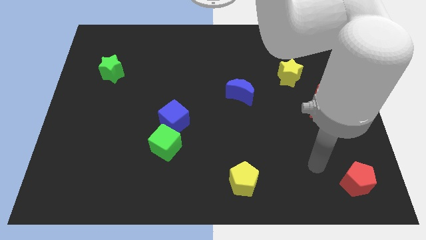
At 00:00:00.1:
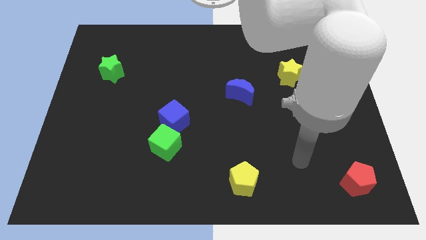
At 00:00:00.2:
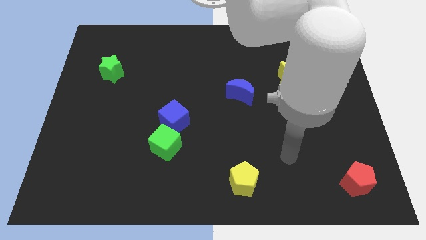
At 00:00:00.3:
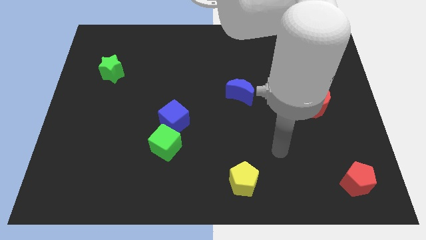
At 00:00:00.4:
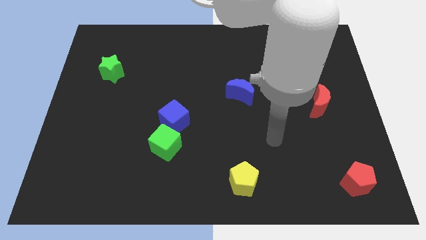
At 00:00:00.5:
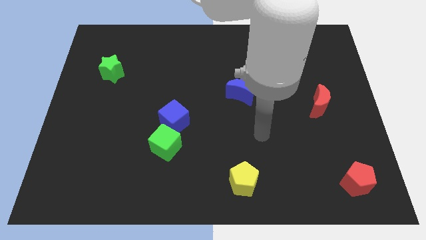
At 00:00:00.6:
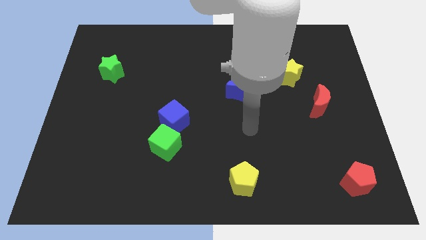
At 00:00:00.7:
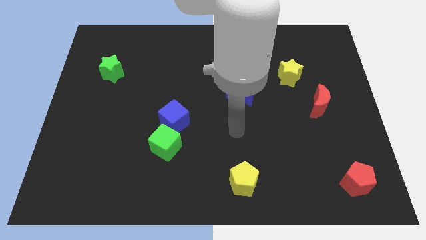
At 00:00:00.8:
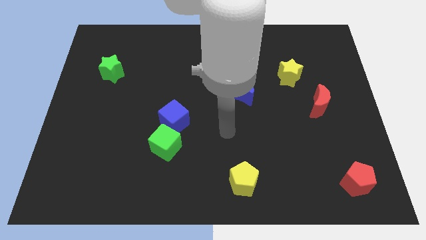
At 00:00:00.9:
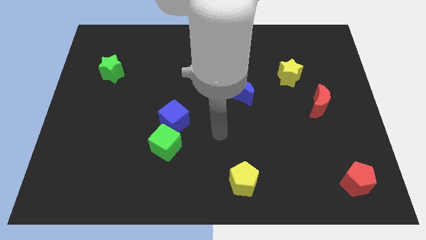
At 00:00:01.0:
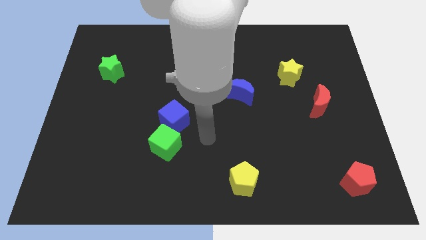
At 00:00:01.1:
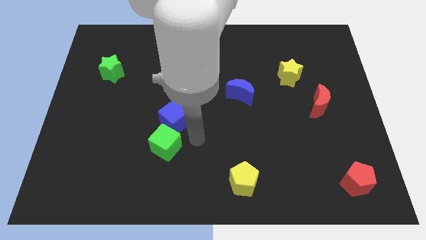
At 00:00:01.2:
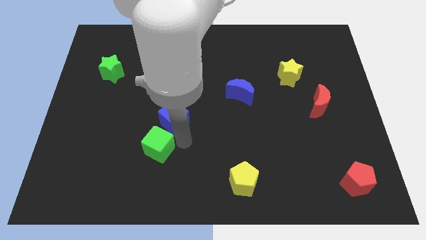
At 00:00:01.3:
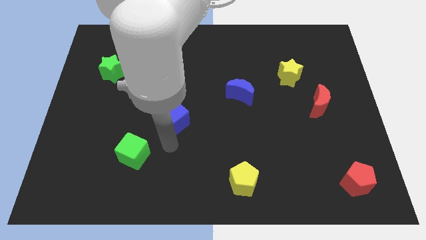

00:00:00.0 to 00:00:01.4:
move the blue cube away from the green cube

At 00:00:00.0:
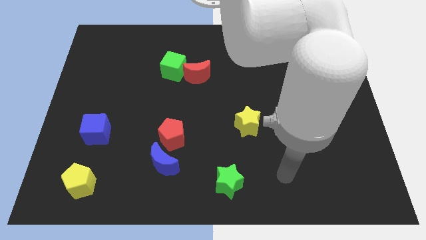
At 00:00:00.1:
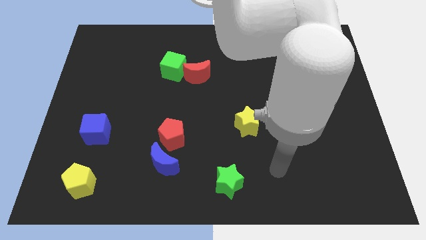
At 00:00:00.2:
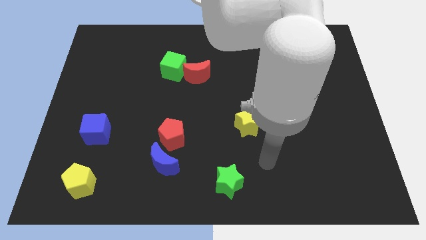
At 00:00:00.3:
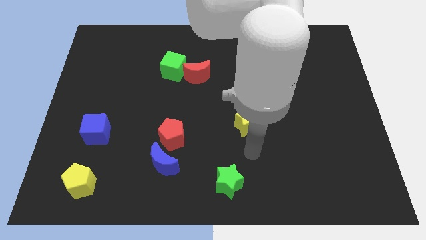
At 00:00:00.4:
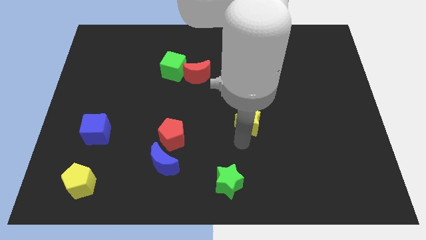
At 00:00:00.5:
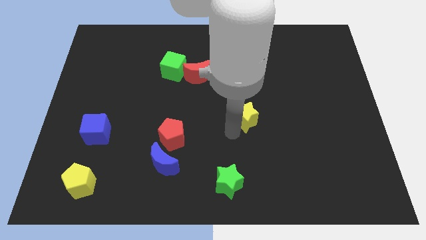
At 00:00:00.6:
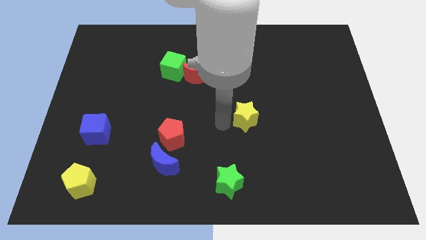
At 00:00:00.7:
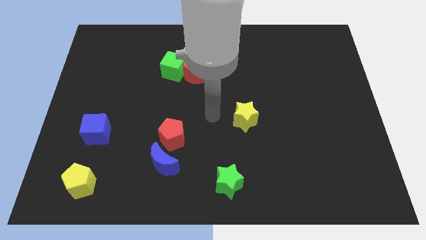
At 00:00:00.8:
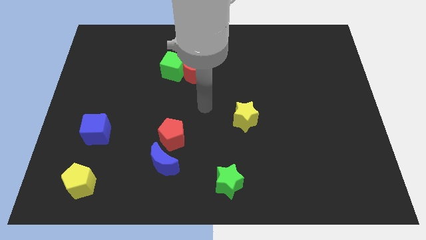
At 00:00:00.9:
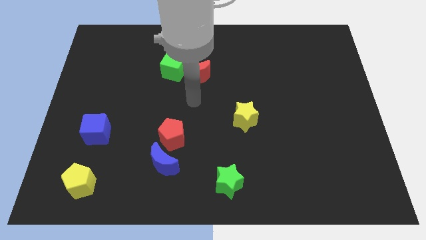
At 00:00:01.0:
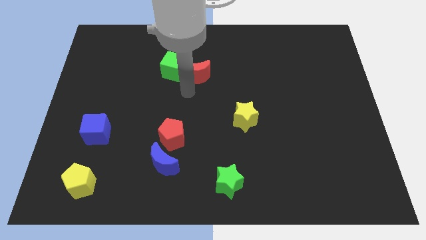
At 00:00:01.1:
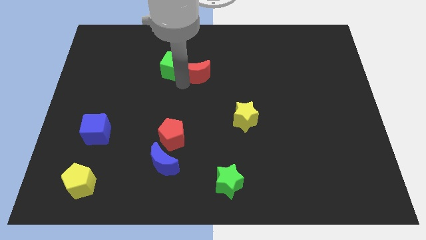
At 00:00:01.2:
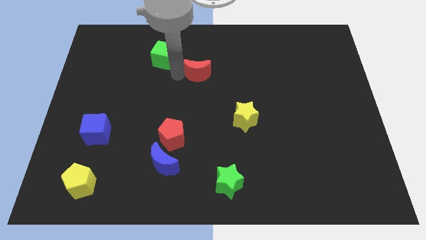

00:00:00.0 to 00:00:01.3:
pull the red moon apart from the green cube

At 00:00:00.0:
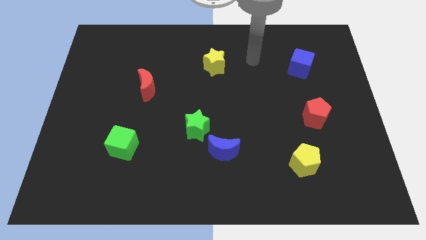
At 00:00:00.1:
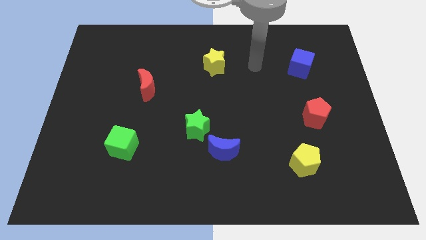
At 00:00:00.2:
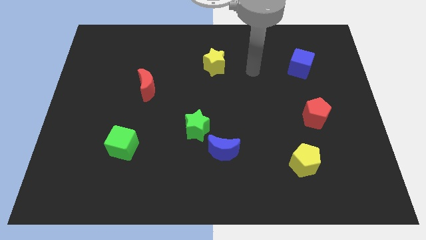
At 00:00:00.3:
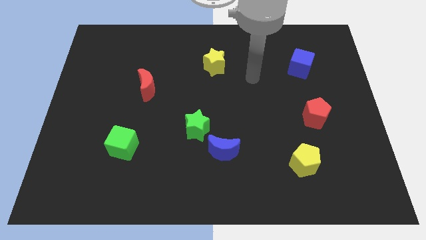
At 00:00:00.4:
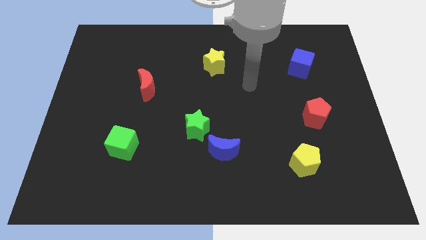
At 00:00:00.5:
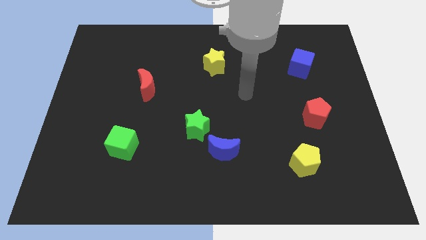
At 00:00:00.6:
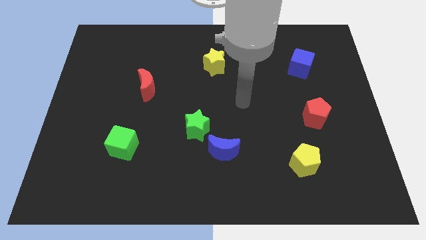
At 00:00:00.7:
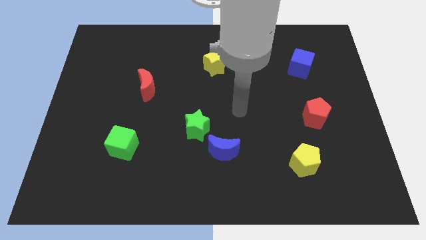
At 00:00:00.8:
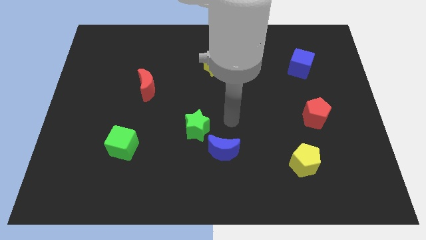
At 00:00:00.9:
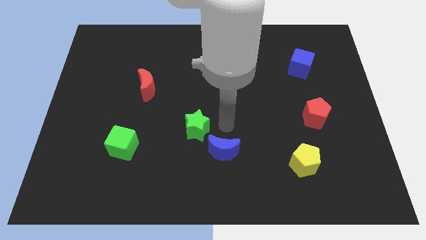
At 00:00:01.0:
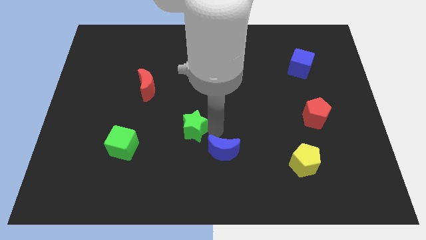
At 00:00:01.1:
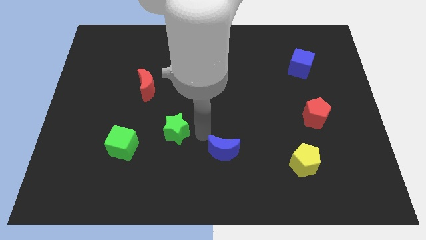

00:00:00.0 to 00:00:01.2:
move the blue moon away from the green star

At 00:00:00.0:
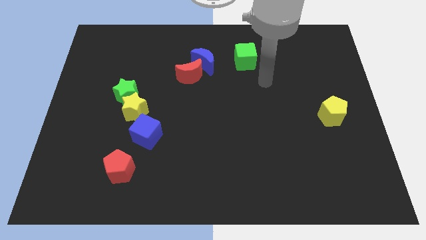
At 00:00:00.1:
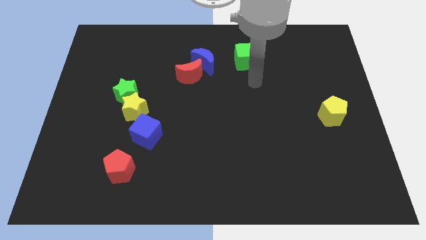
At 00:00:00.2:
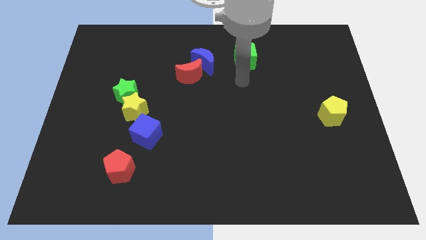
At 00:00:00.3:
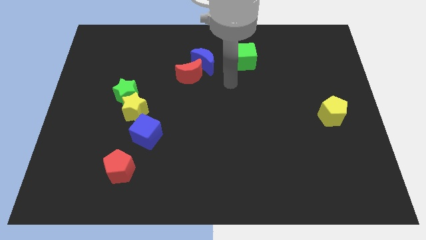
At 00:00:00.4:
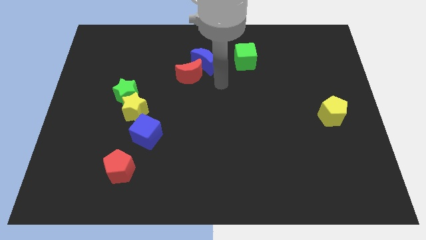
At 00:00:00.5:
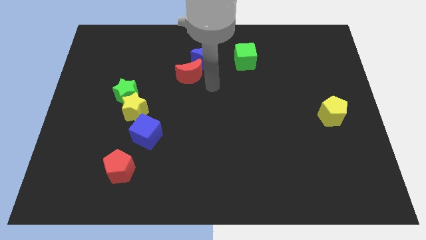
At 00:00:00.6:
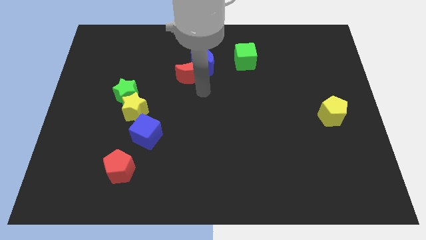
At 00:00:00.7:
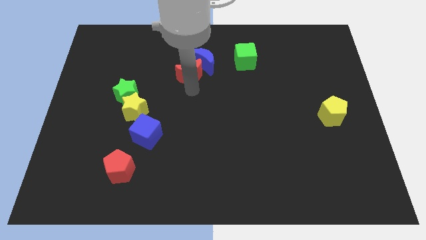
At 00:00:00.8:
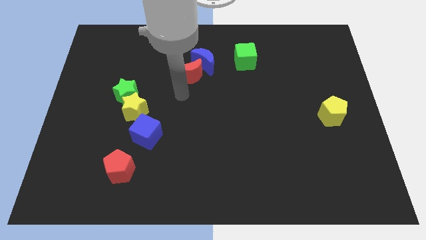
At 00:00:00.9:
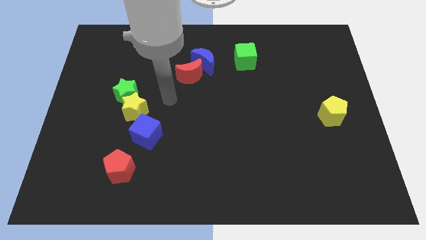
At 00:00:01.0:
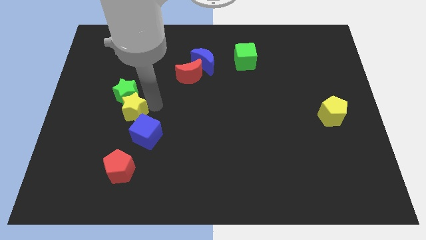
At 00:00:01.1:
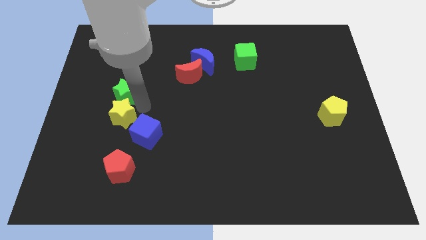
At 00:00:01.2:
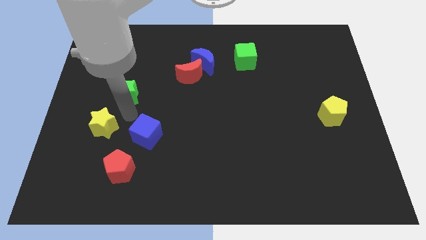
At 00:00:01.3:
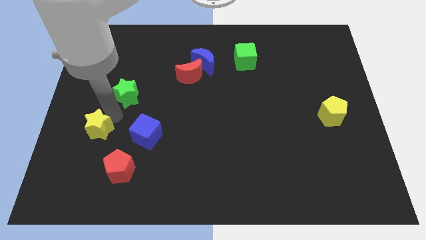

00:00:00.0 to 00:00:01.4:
move the green star away from the yellow star

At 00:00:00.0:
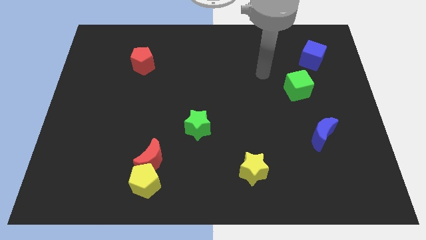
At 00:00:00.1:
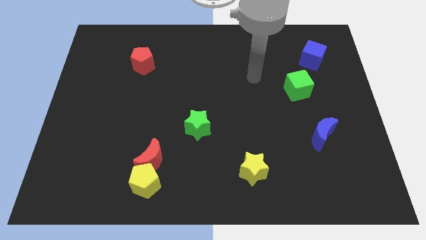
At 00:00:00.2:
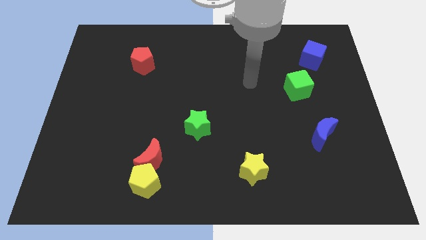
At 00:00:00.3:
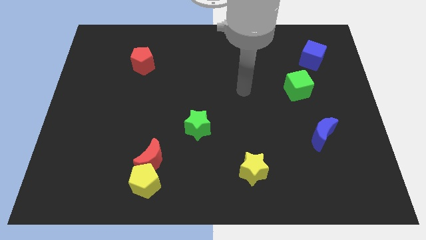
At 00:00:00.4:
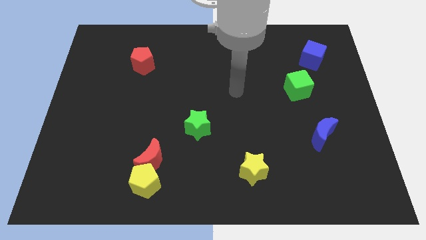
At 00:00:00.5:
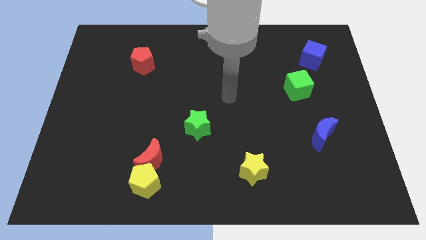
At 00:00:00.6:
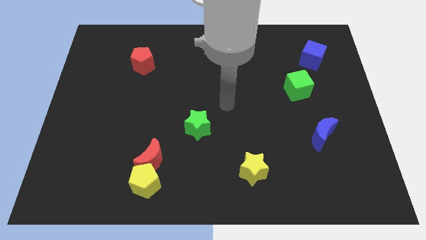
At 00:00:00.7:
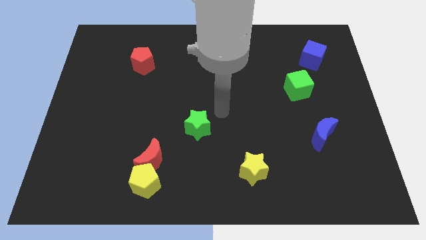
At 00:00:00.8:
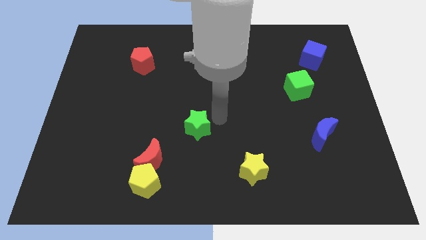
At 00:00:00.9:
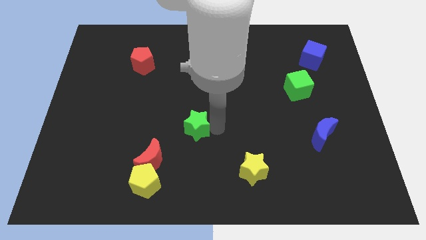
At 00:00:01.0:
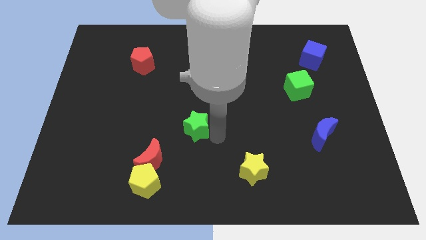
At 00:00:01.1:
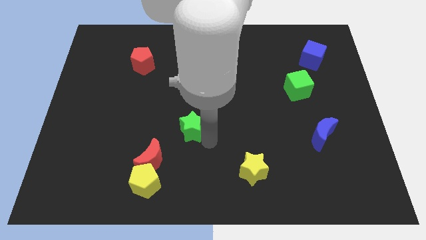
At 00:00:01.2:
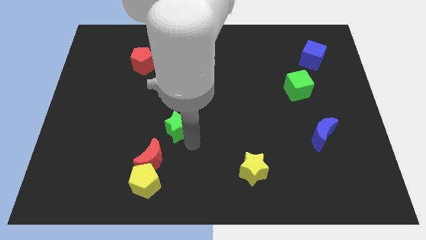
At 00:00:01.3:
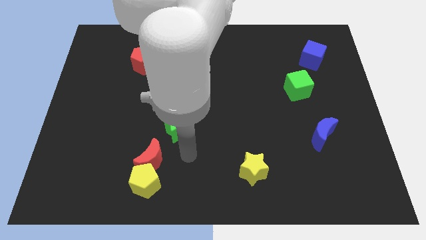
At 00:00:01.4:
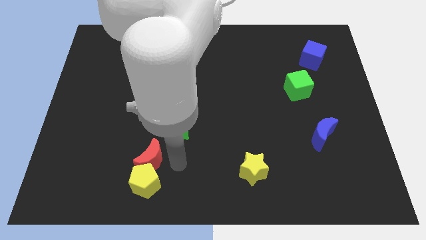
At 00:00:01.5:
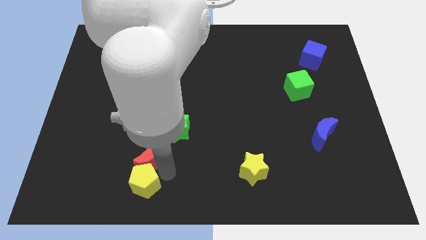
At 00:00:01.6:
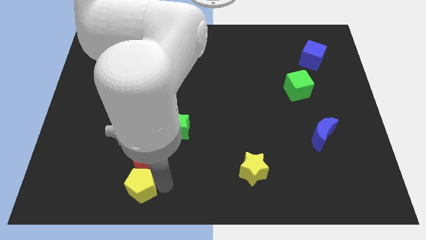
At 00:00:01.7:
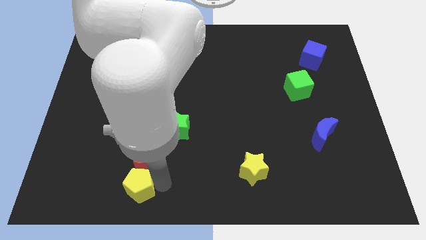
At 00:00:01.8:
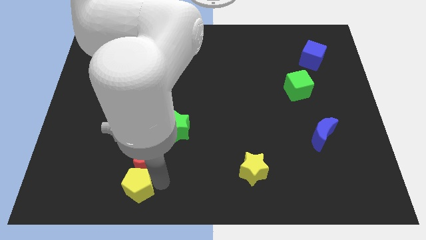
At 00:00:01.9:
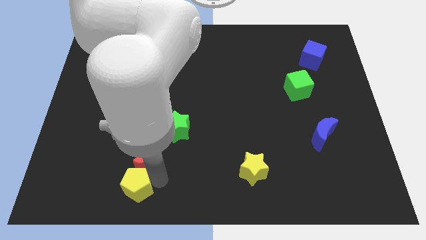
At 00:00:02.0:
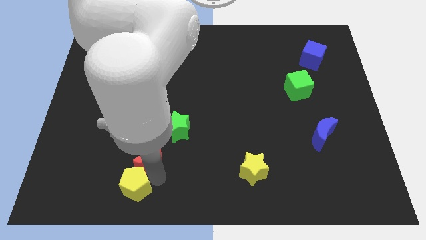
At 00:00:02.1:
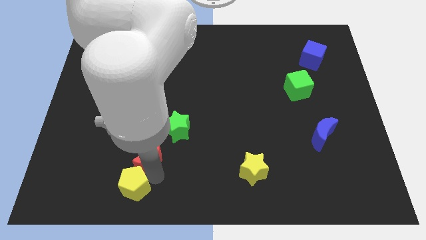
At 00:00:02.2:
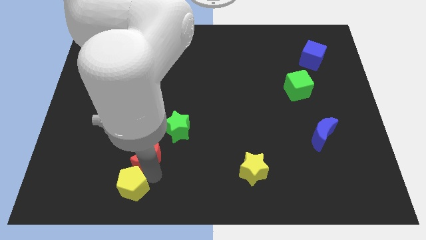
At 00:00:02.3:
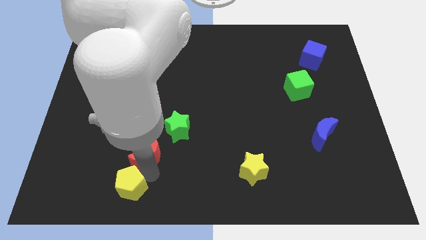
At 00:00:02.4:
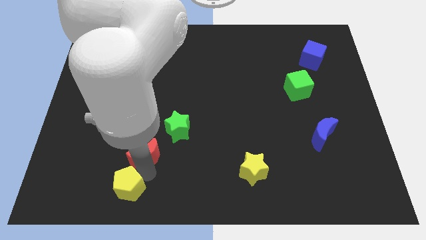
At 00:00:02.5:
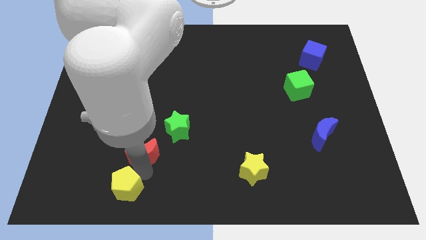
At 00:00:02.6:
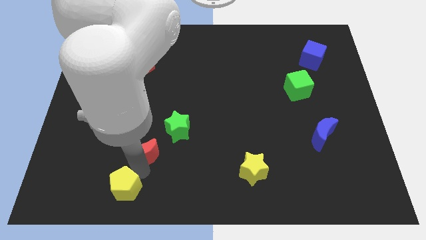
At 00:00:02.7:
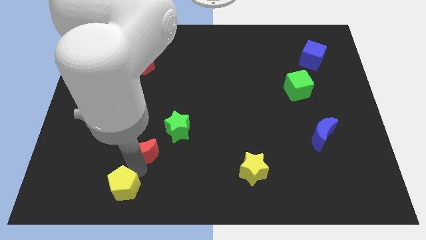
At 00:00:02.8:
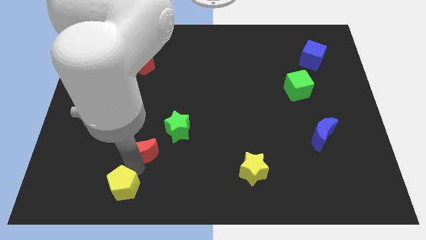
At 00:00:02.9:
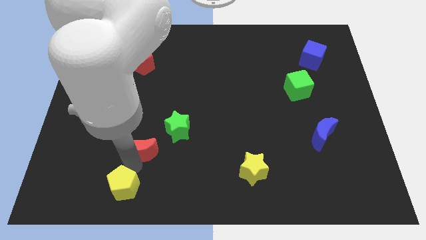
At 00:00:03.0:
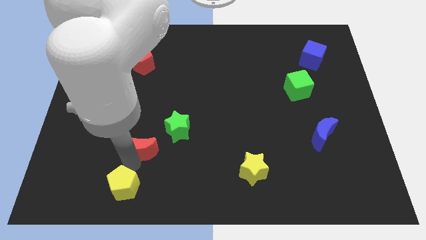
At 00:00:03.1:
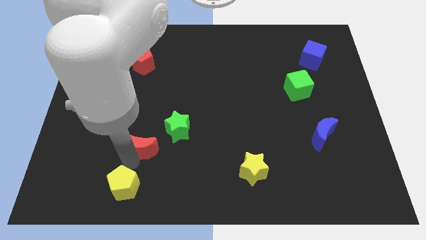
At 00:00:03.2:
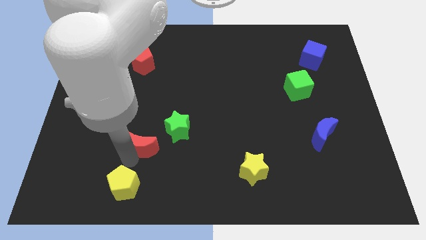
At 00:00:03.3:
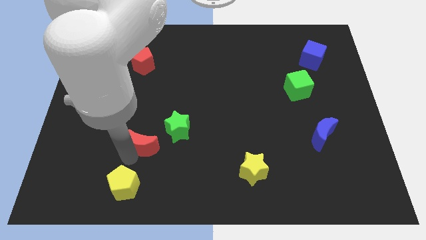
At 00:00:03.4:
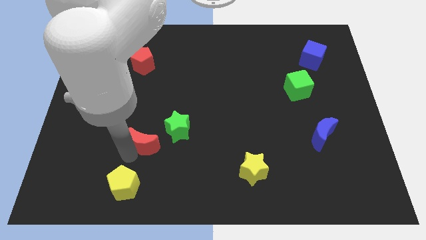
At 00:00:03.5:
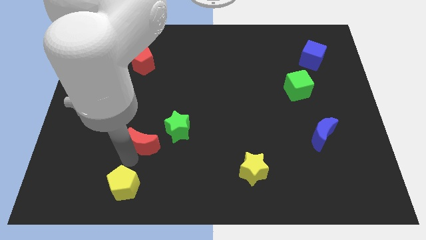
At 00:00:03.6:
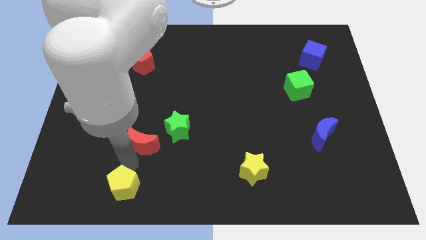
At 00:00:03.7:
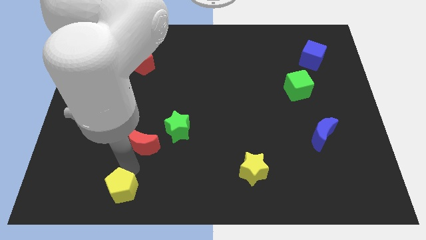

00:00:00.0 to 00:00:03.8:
separate the red moon from the yellow pentagon

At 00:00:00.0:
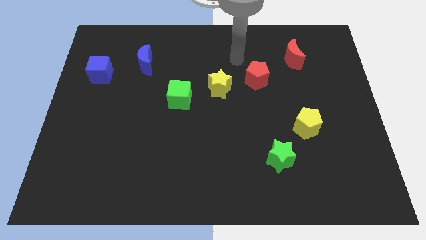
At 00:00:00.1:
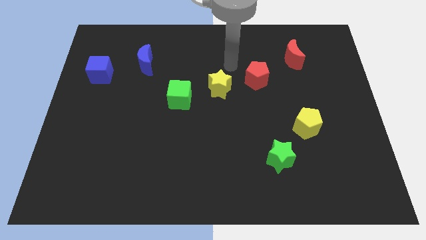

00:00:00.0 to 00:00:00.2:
separate the green cube from the yellow star
